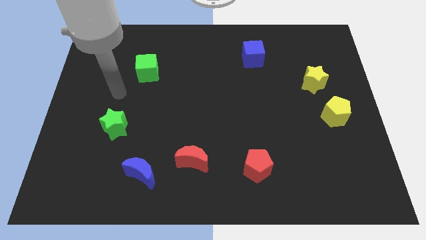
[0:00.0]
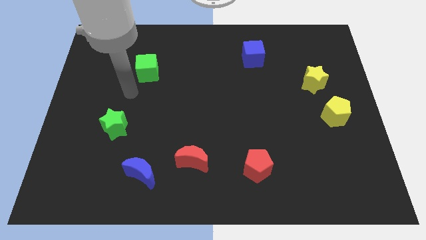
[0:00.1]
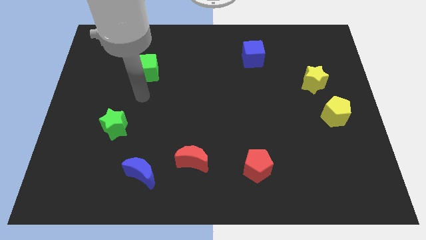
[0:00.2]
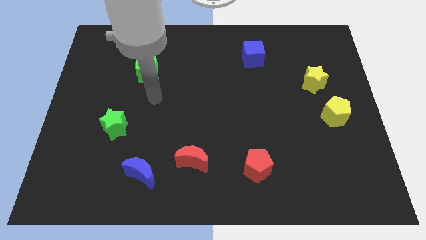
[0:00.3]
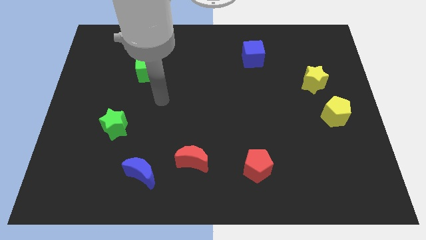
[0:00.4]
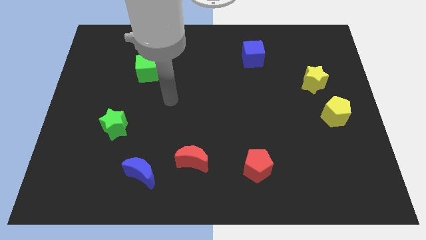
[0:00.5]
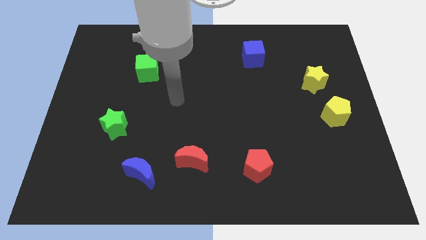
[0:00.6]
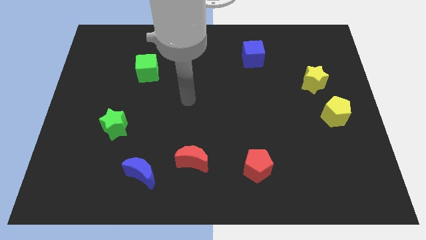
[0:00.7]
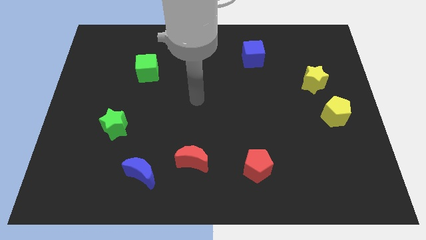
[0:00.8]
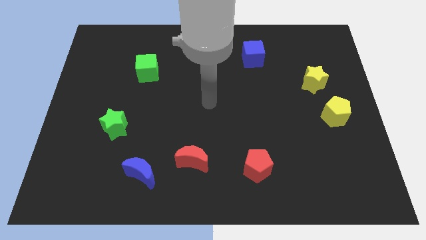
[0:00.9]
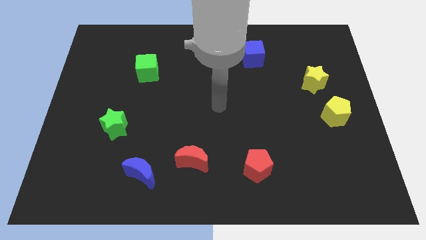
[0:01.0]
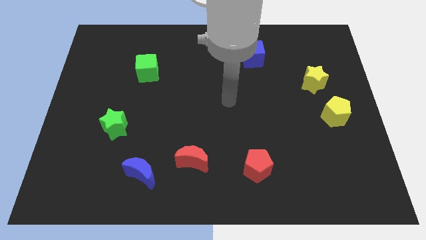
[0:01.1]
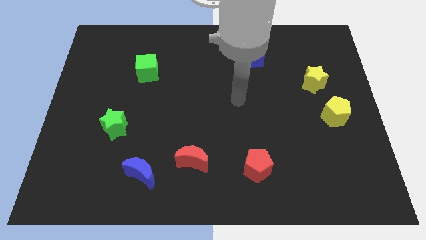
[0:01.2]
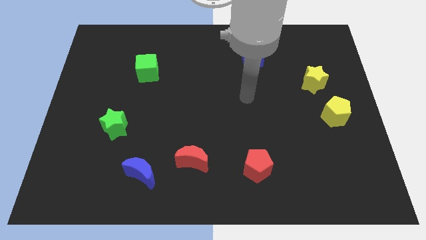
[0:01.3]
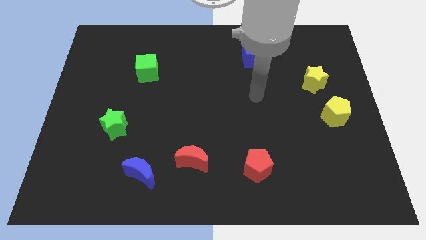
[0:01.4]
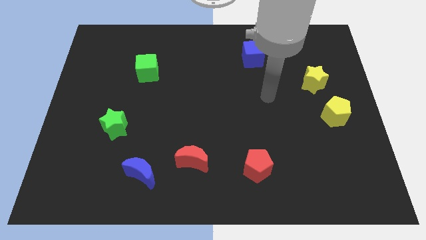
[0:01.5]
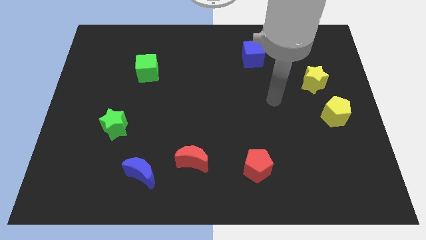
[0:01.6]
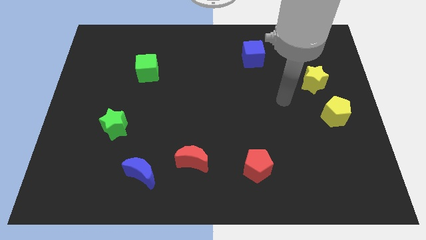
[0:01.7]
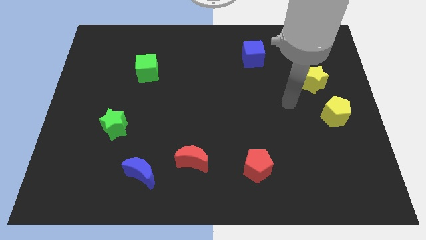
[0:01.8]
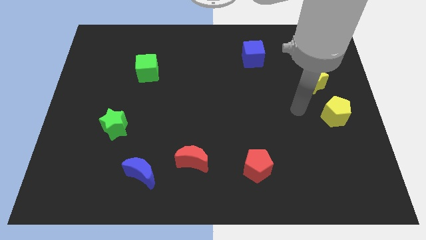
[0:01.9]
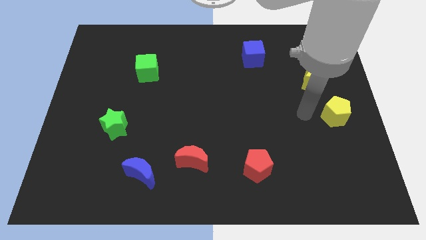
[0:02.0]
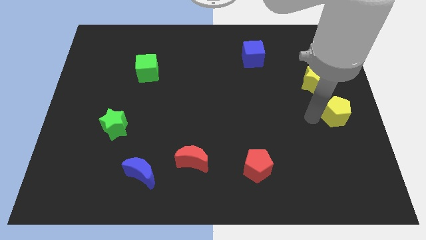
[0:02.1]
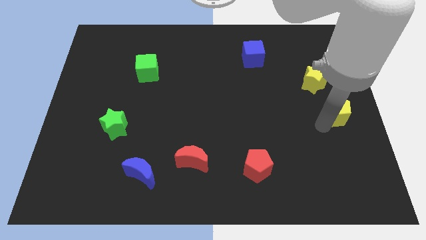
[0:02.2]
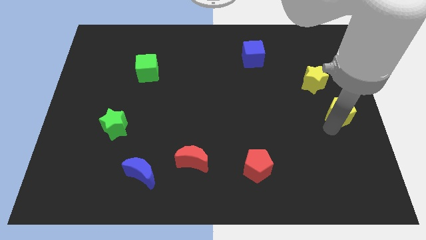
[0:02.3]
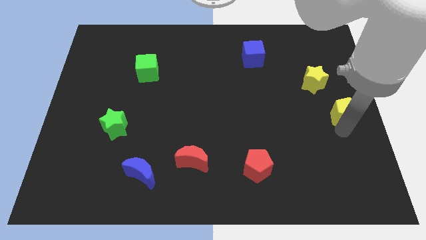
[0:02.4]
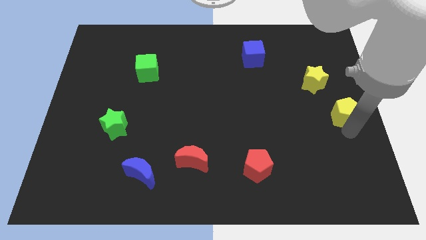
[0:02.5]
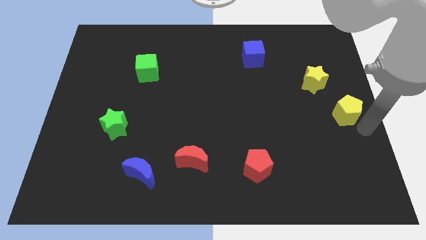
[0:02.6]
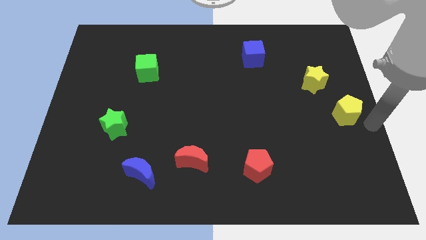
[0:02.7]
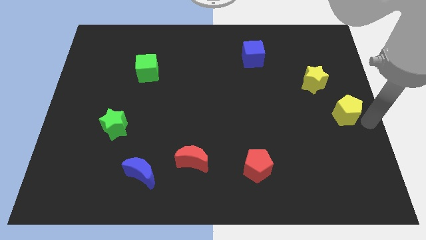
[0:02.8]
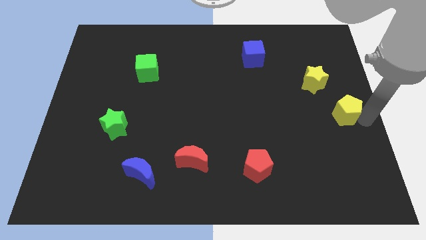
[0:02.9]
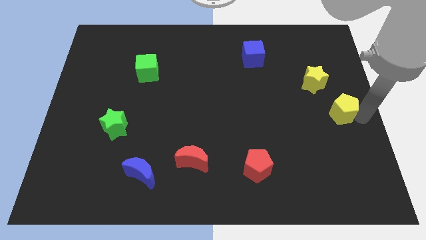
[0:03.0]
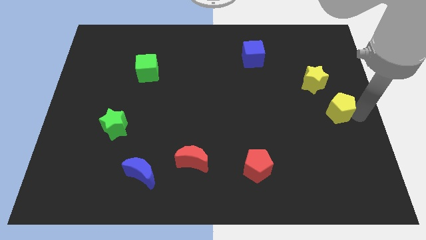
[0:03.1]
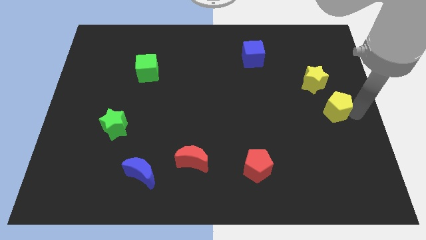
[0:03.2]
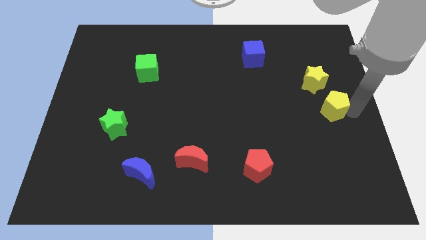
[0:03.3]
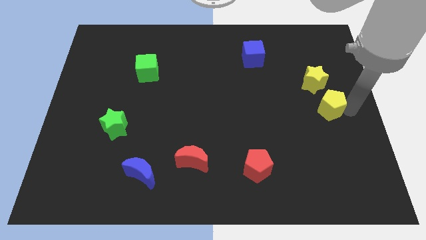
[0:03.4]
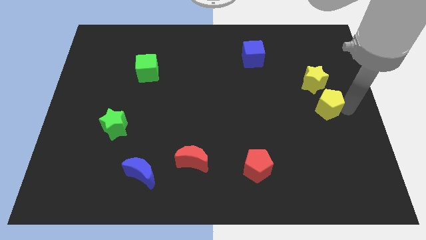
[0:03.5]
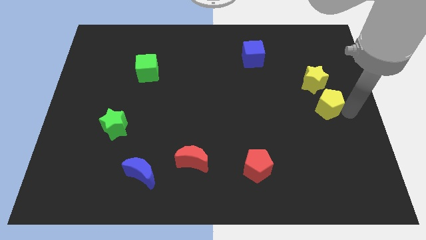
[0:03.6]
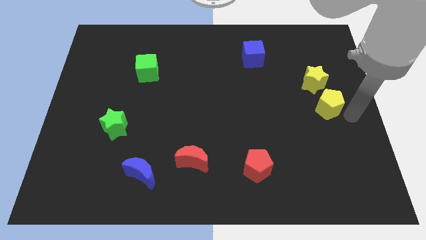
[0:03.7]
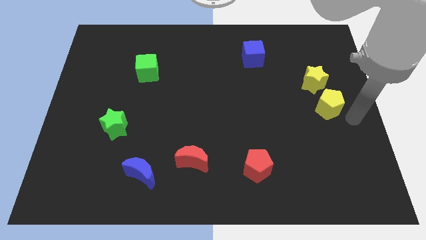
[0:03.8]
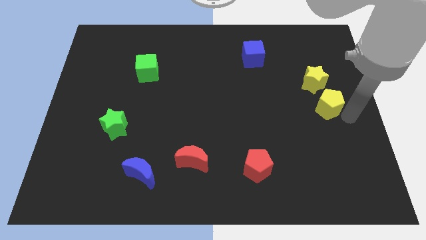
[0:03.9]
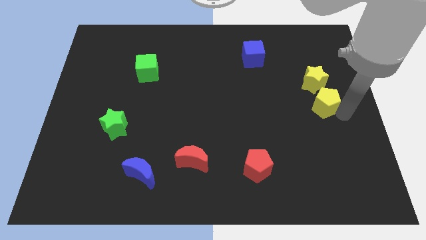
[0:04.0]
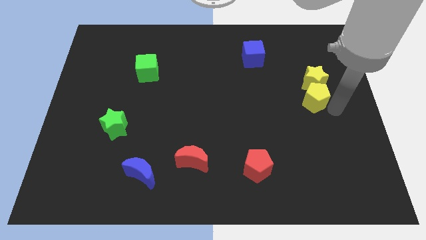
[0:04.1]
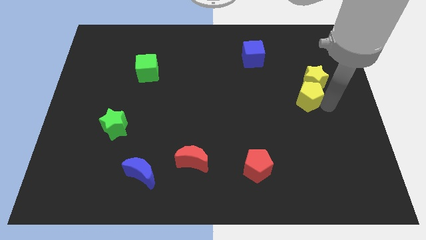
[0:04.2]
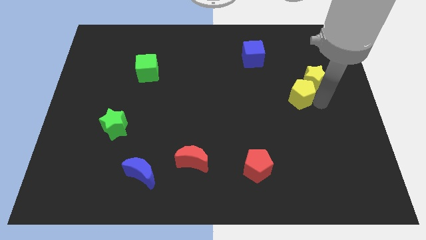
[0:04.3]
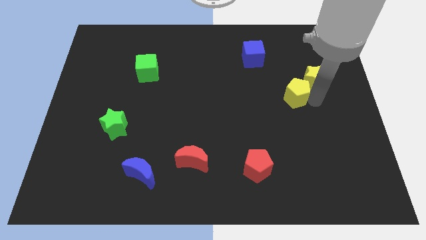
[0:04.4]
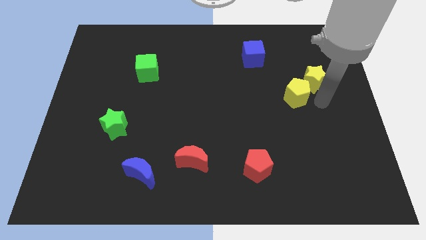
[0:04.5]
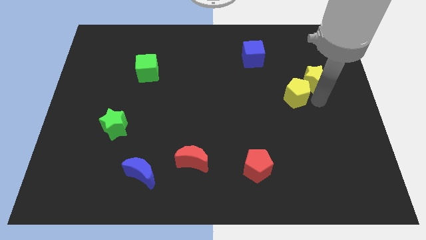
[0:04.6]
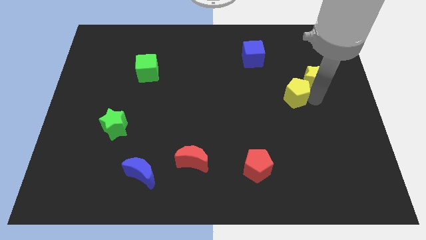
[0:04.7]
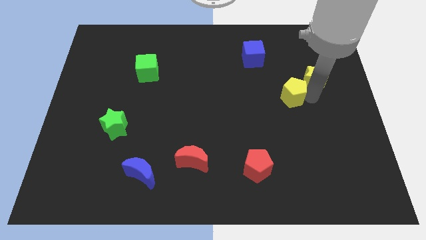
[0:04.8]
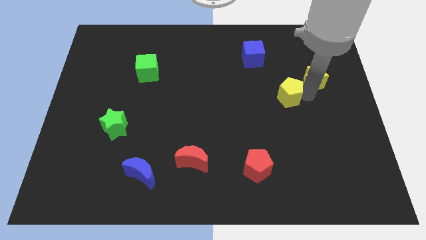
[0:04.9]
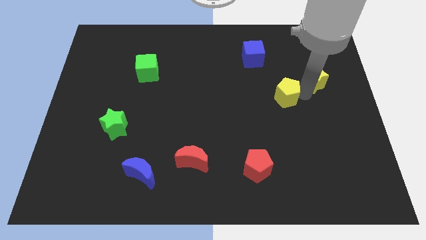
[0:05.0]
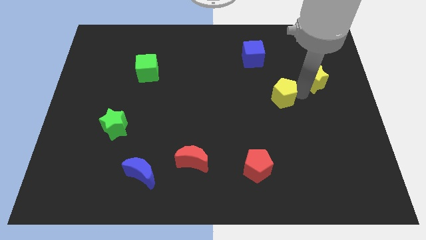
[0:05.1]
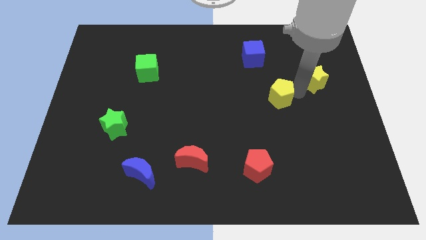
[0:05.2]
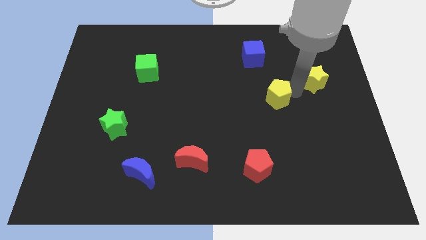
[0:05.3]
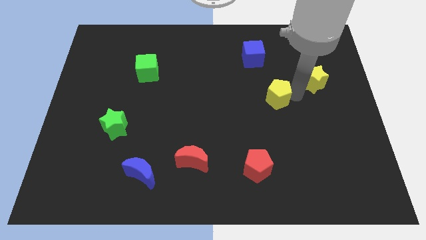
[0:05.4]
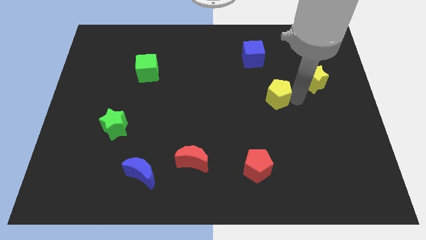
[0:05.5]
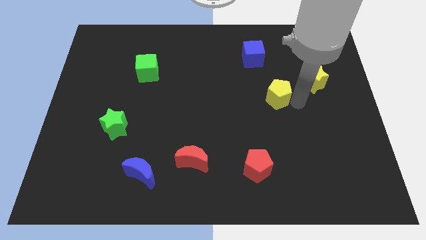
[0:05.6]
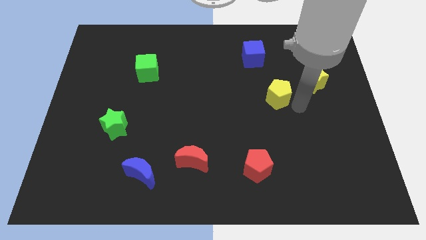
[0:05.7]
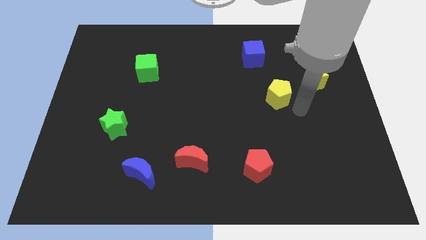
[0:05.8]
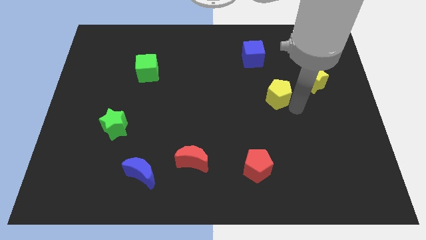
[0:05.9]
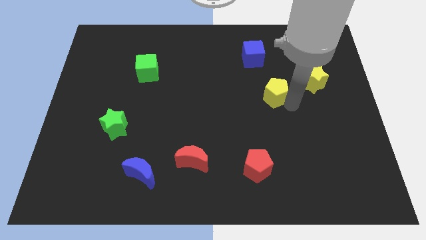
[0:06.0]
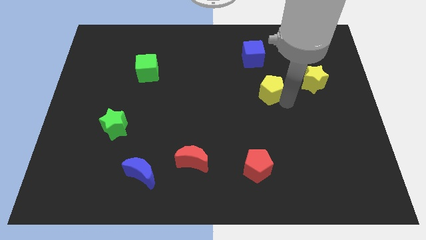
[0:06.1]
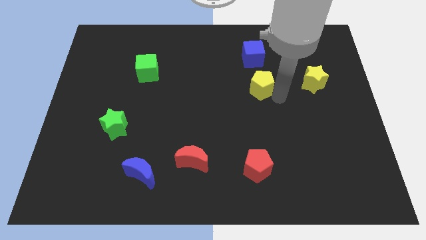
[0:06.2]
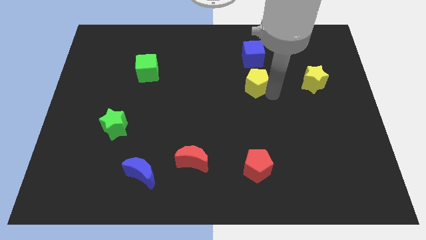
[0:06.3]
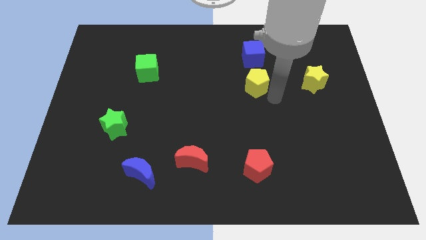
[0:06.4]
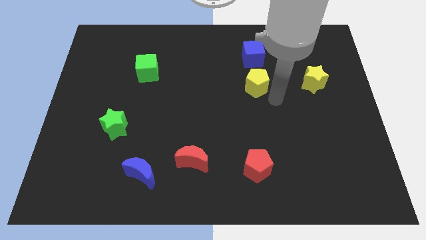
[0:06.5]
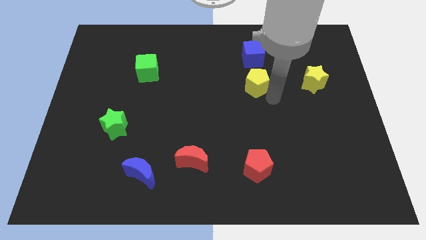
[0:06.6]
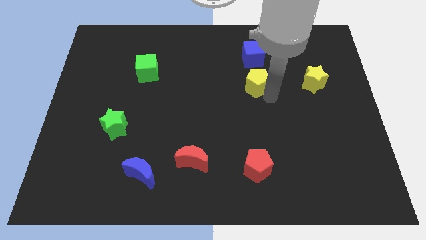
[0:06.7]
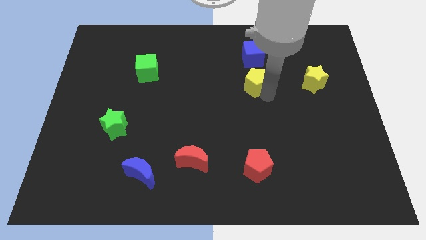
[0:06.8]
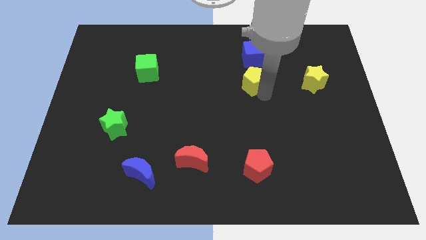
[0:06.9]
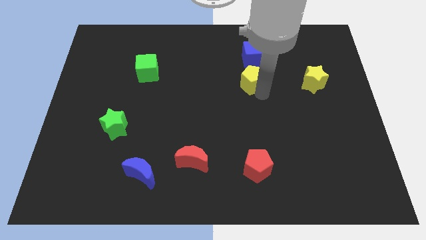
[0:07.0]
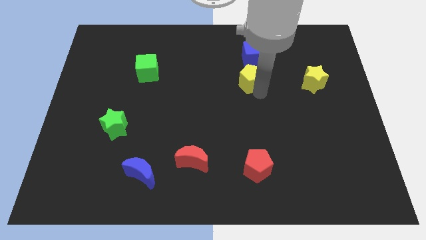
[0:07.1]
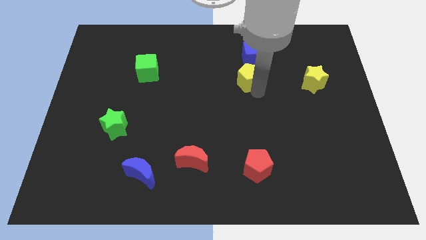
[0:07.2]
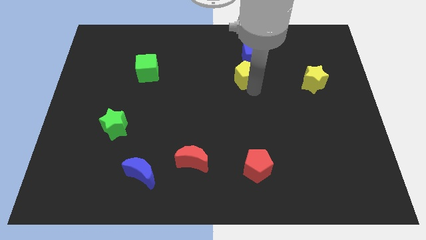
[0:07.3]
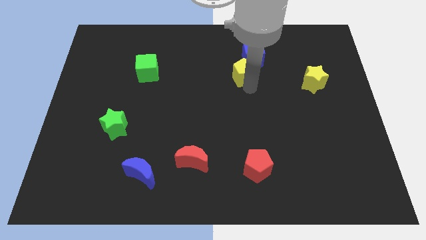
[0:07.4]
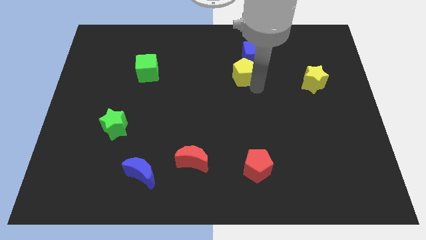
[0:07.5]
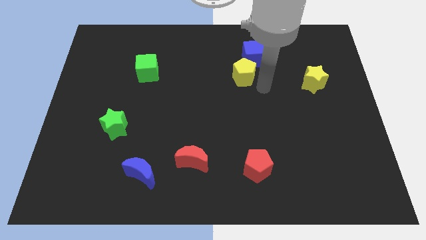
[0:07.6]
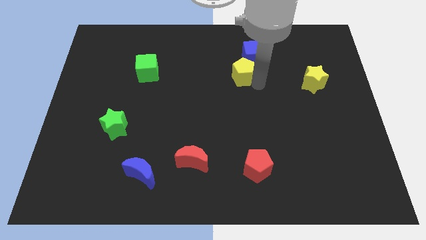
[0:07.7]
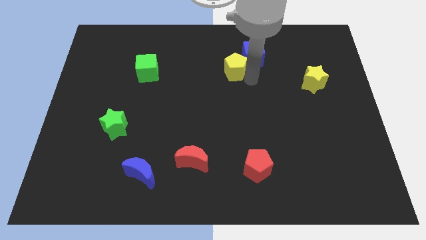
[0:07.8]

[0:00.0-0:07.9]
slide the yellow pentagon left of the blue cube
